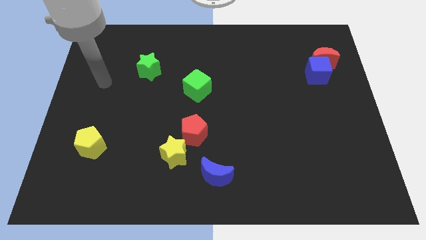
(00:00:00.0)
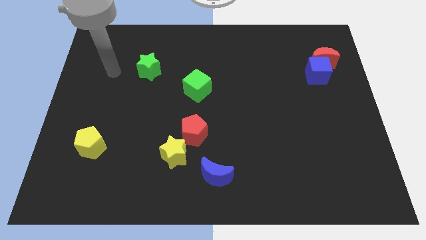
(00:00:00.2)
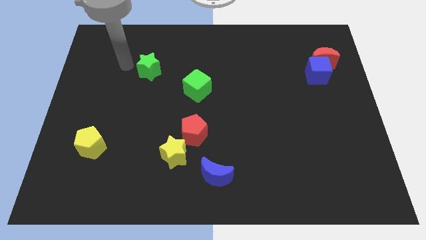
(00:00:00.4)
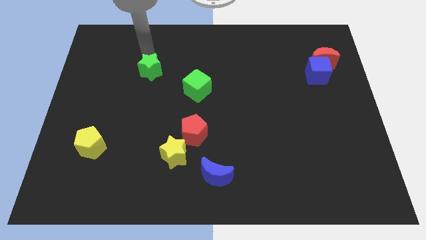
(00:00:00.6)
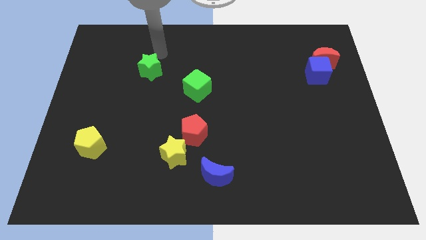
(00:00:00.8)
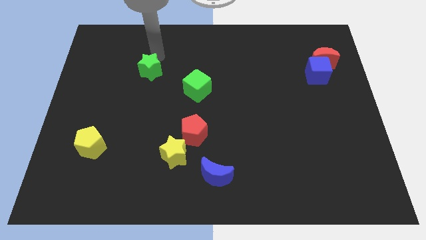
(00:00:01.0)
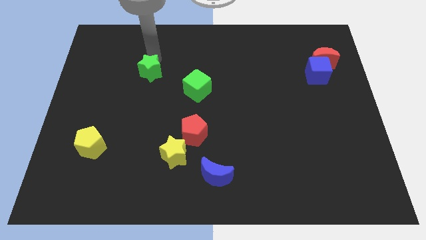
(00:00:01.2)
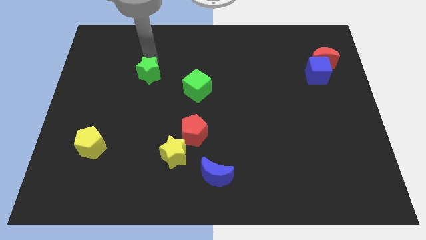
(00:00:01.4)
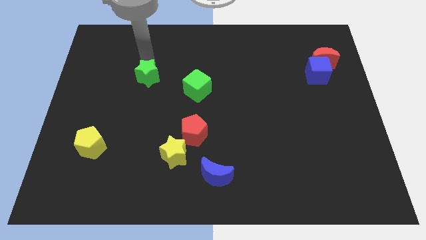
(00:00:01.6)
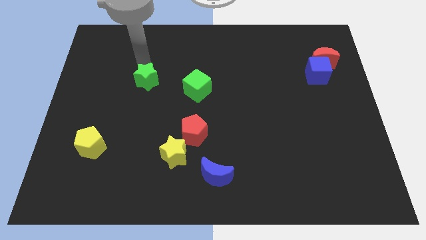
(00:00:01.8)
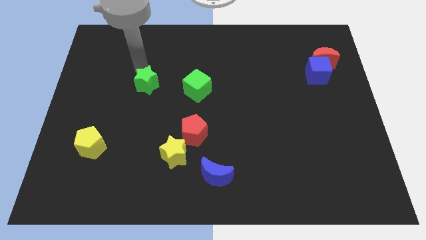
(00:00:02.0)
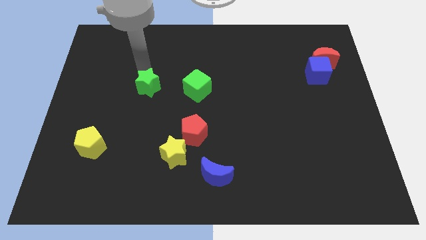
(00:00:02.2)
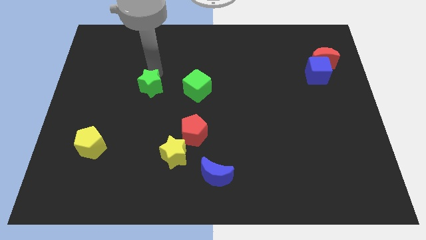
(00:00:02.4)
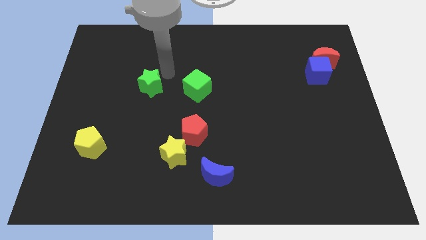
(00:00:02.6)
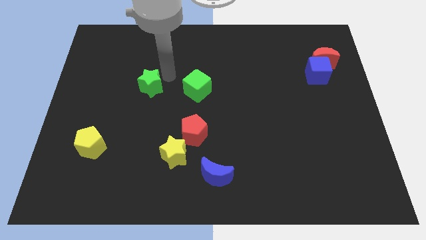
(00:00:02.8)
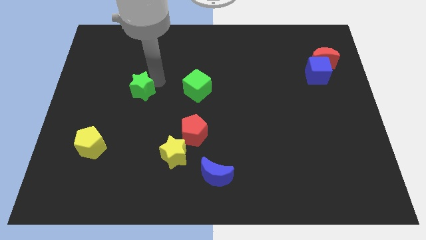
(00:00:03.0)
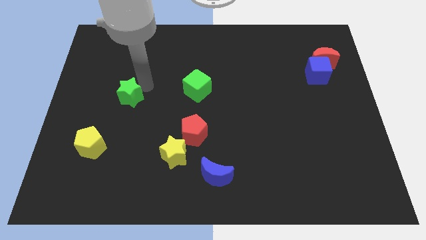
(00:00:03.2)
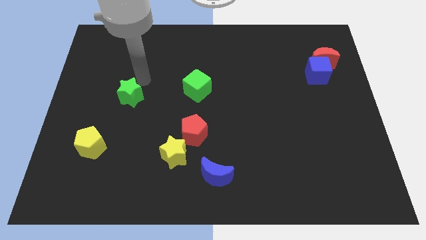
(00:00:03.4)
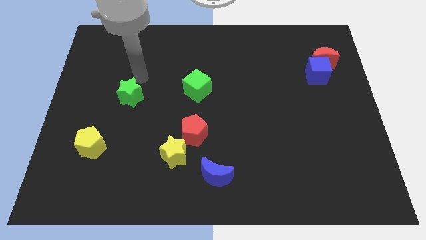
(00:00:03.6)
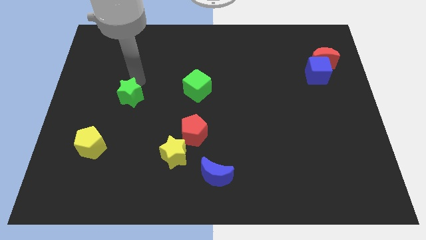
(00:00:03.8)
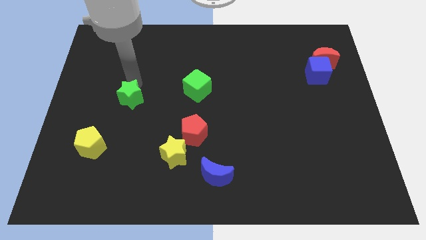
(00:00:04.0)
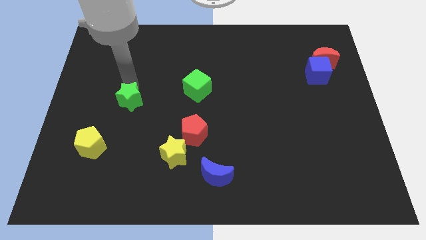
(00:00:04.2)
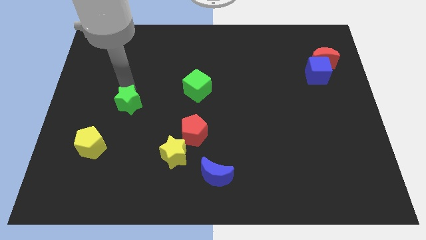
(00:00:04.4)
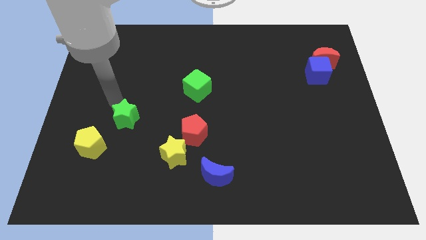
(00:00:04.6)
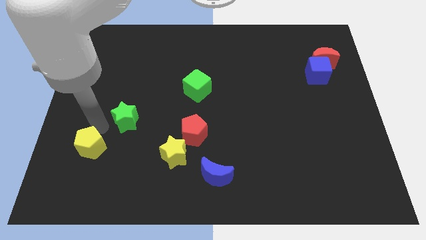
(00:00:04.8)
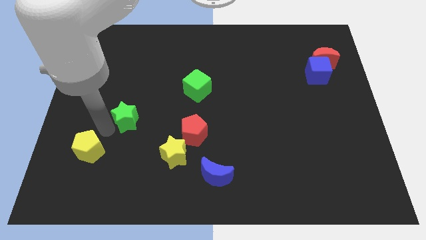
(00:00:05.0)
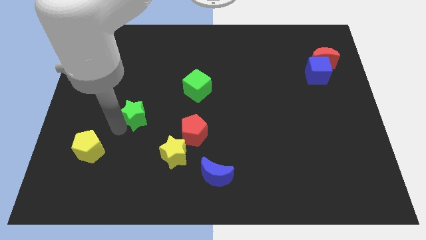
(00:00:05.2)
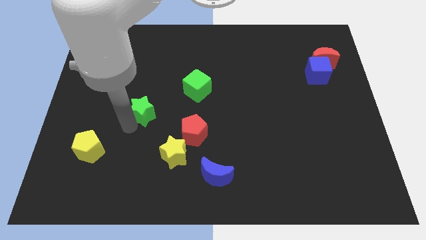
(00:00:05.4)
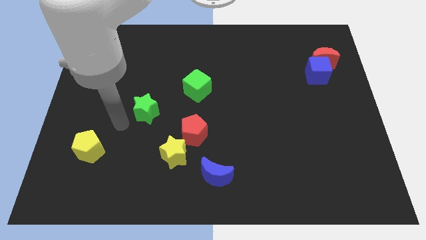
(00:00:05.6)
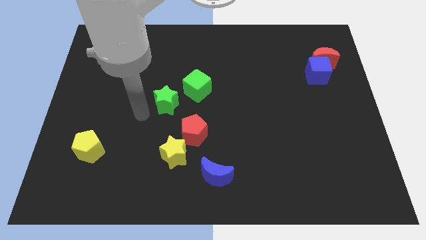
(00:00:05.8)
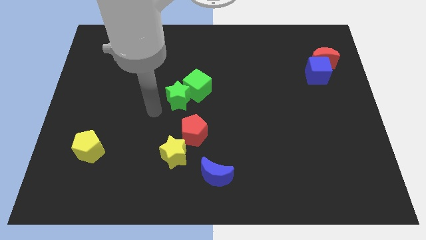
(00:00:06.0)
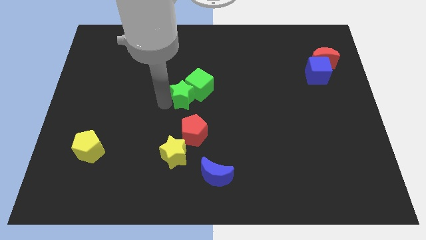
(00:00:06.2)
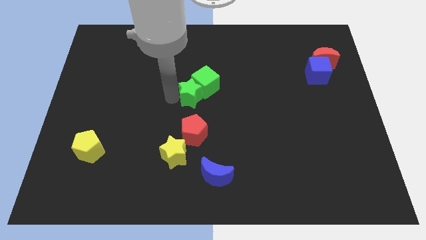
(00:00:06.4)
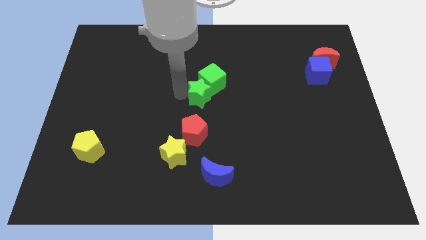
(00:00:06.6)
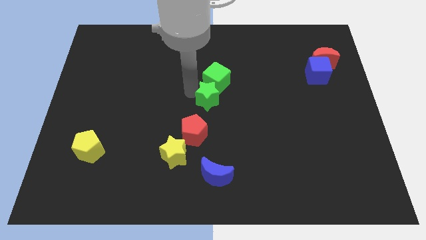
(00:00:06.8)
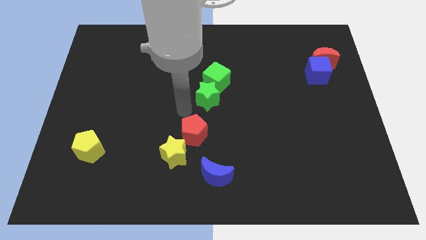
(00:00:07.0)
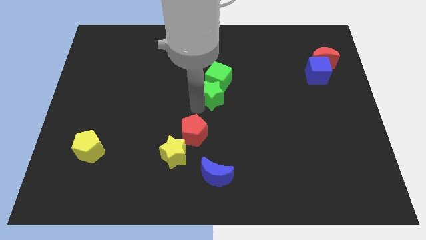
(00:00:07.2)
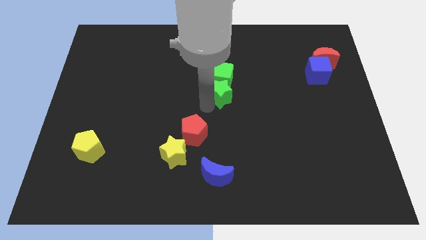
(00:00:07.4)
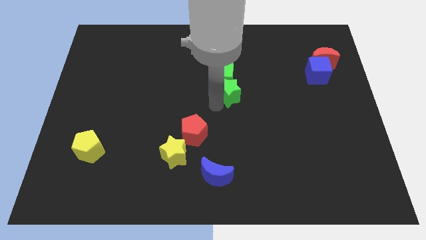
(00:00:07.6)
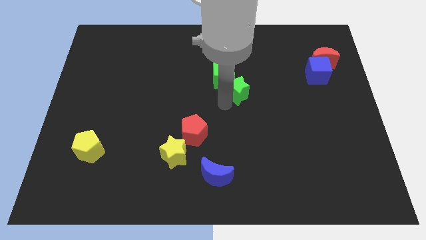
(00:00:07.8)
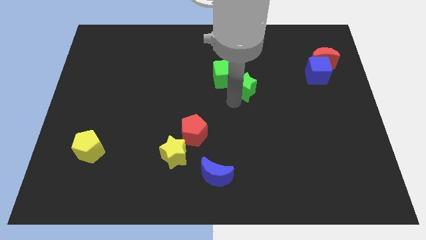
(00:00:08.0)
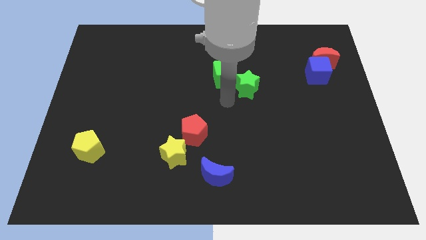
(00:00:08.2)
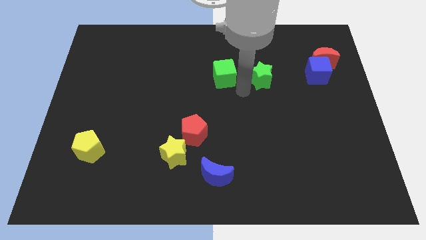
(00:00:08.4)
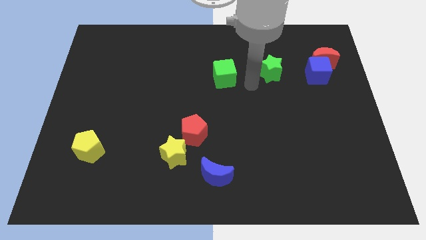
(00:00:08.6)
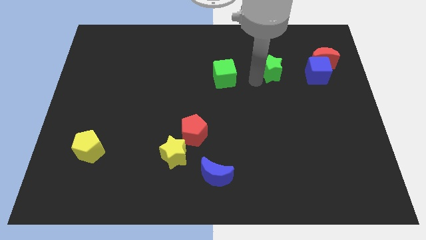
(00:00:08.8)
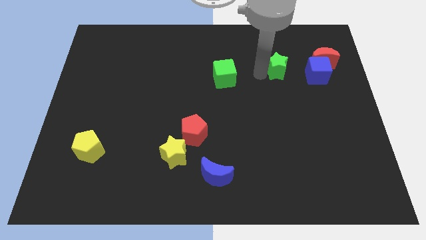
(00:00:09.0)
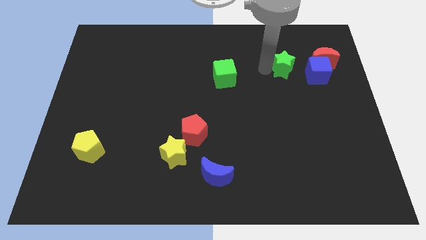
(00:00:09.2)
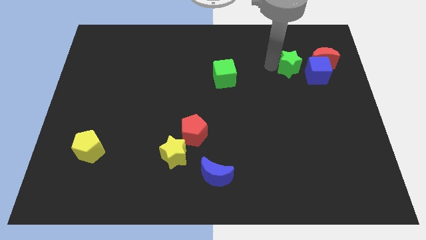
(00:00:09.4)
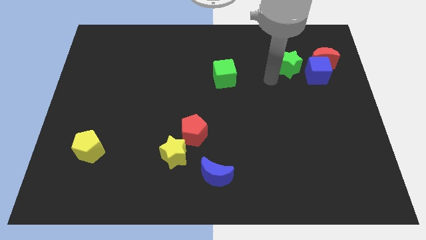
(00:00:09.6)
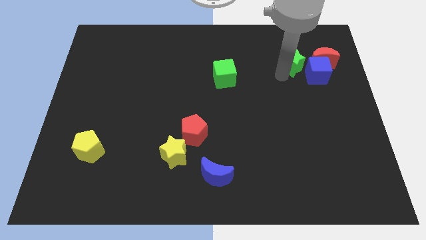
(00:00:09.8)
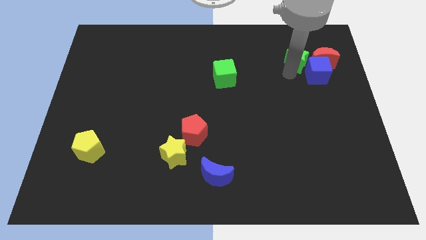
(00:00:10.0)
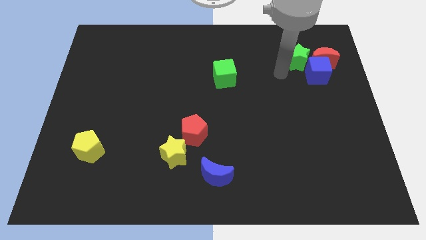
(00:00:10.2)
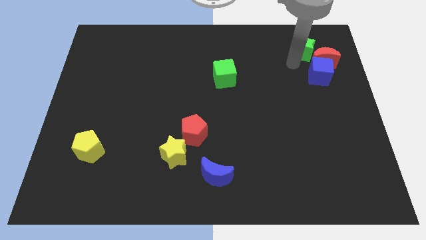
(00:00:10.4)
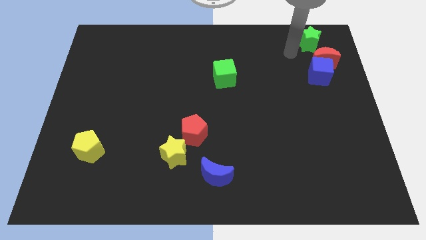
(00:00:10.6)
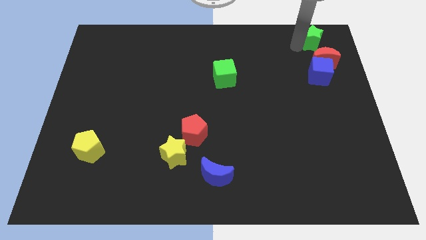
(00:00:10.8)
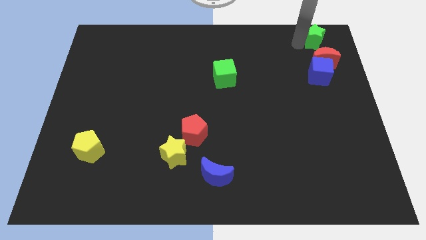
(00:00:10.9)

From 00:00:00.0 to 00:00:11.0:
move the green star to the top right of the board
